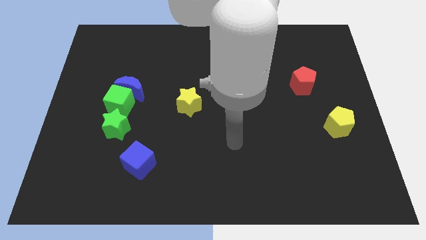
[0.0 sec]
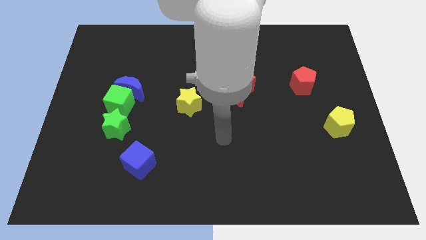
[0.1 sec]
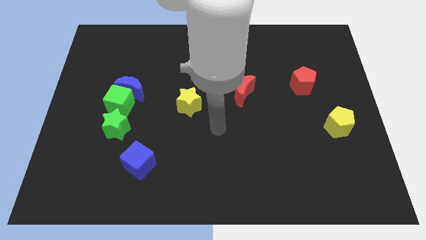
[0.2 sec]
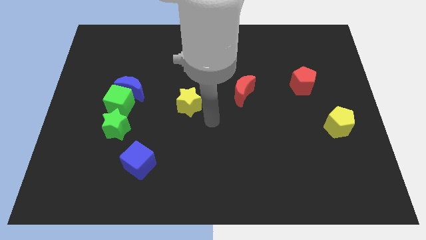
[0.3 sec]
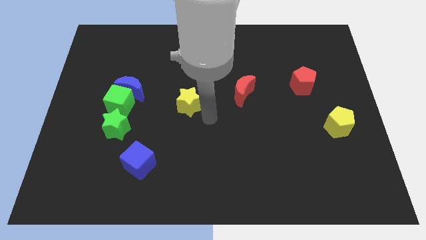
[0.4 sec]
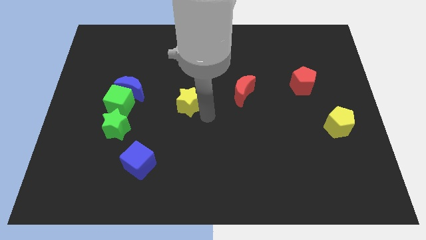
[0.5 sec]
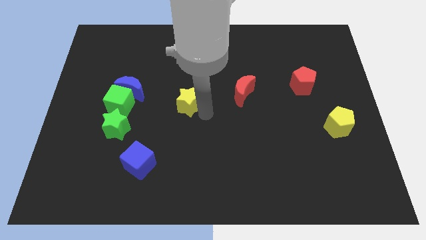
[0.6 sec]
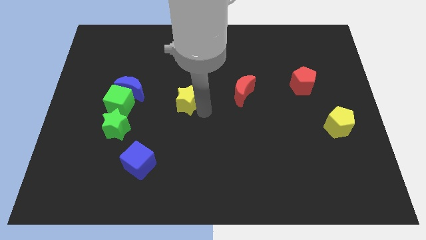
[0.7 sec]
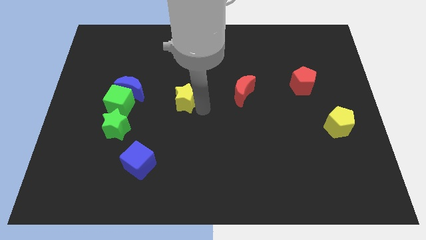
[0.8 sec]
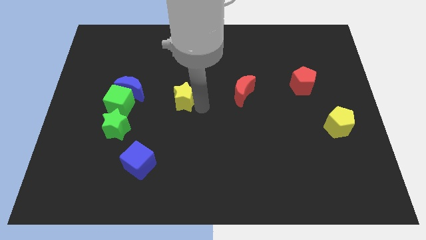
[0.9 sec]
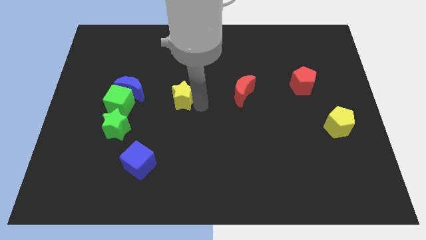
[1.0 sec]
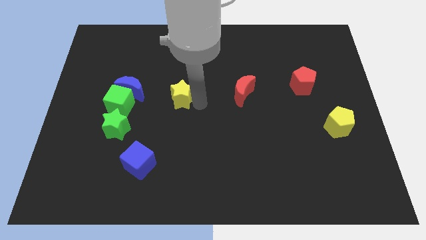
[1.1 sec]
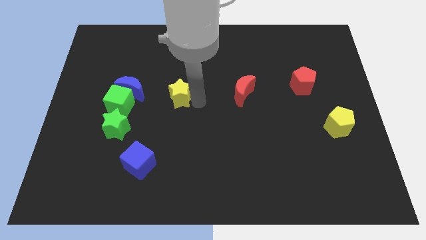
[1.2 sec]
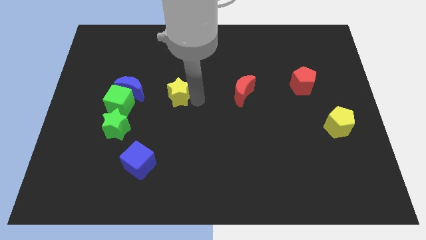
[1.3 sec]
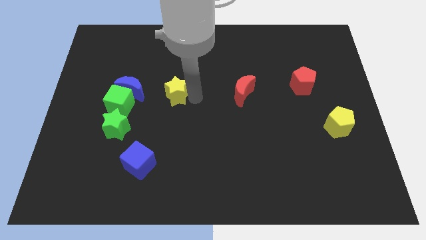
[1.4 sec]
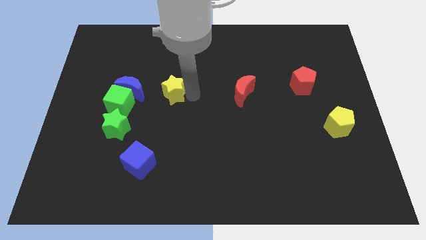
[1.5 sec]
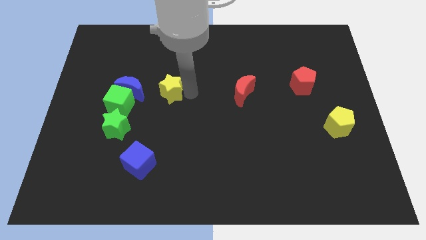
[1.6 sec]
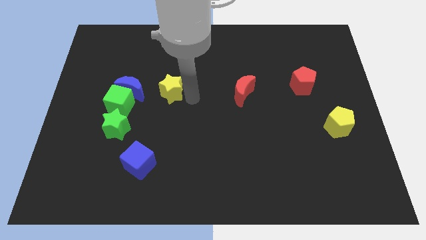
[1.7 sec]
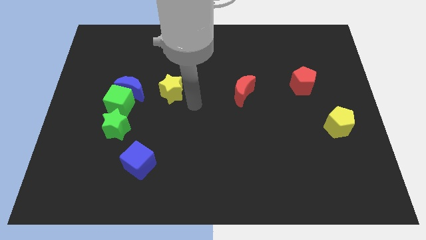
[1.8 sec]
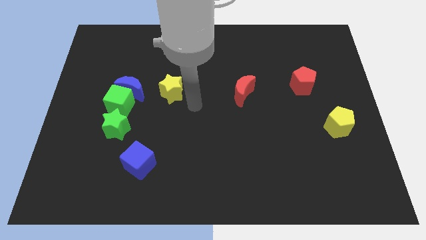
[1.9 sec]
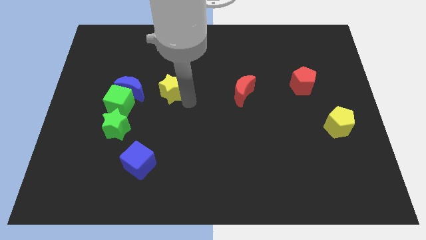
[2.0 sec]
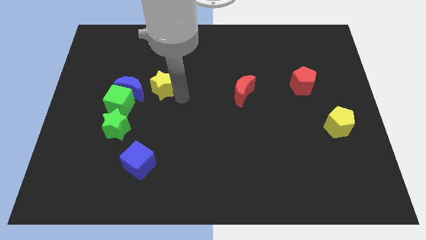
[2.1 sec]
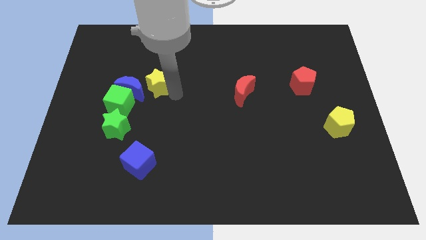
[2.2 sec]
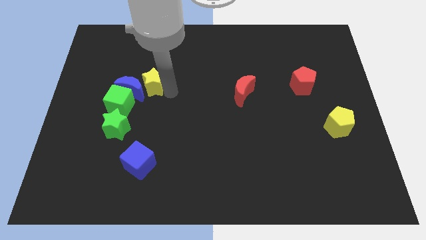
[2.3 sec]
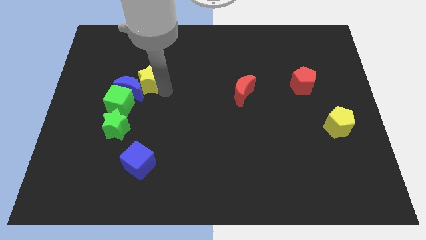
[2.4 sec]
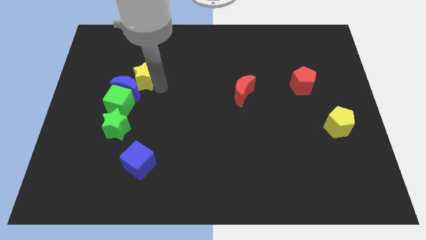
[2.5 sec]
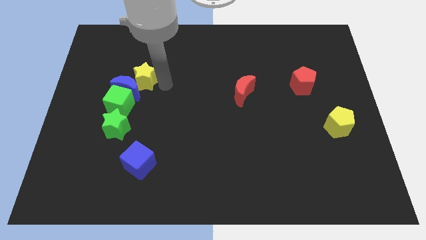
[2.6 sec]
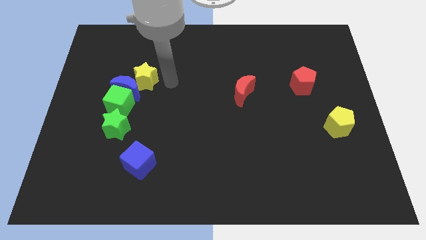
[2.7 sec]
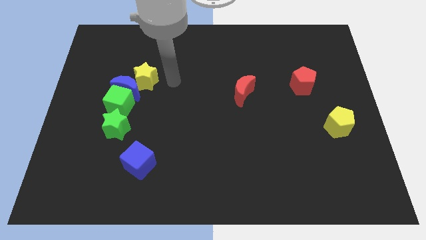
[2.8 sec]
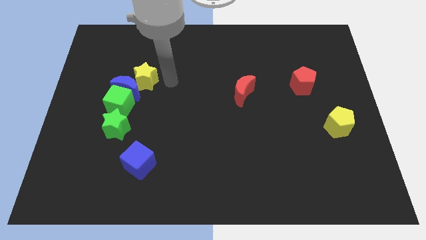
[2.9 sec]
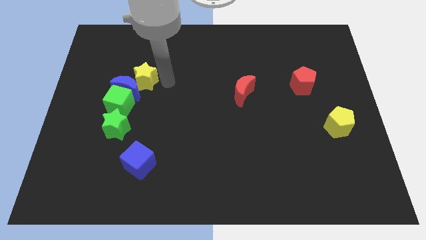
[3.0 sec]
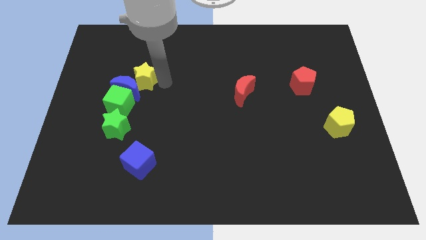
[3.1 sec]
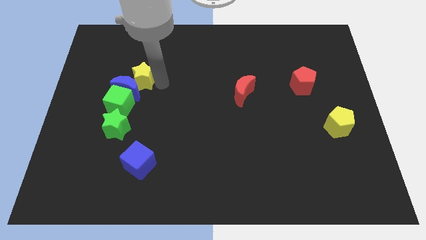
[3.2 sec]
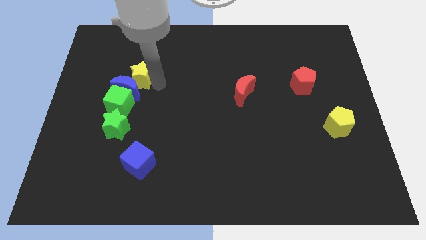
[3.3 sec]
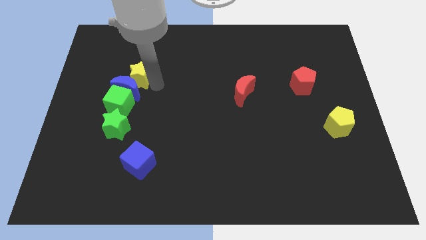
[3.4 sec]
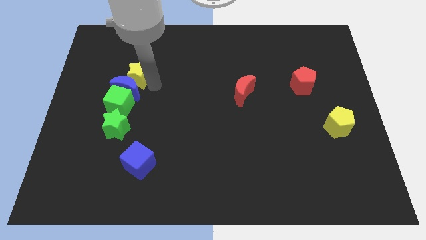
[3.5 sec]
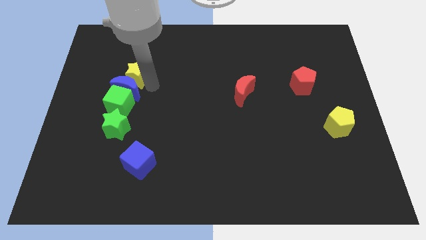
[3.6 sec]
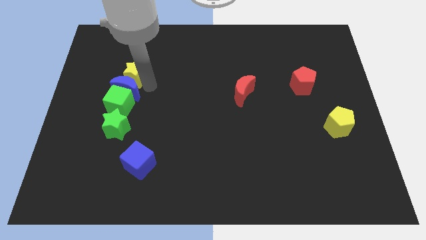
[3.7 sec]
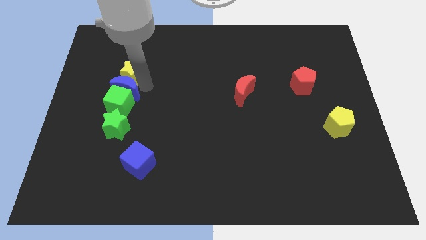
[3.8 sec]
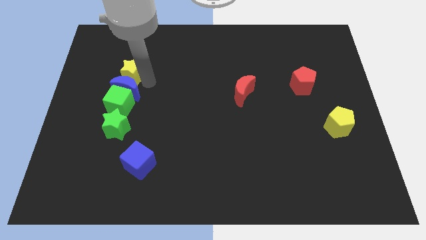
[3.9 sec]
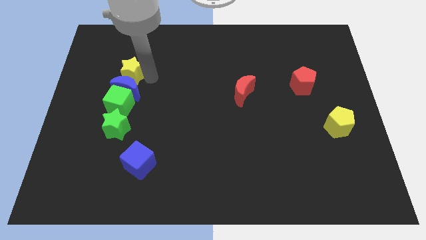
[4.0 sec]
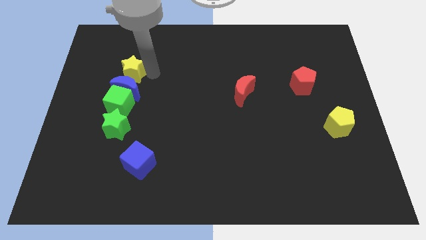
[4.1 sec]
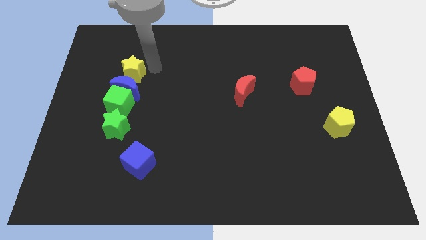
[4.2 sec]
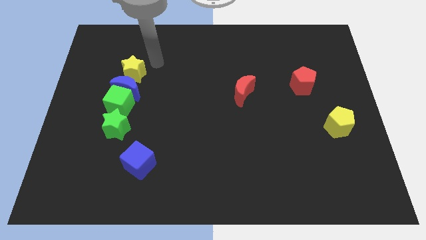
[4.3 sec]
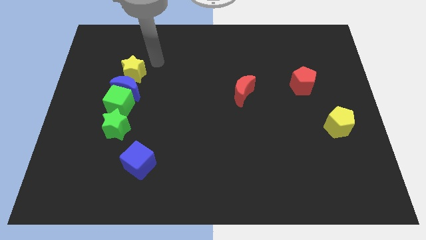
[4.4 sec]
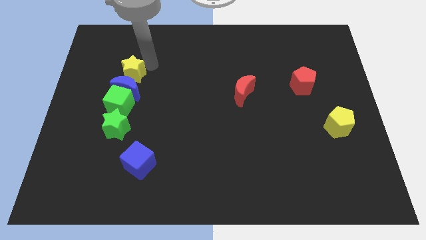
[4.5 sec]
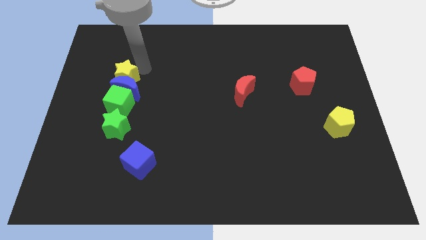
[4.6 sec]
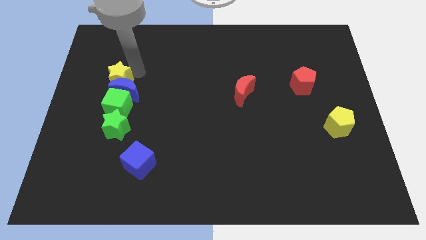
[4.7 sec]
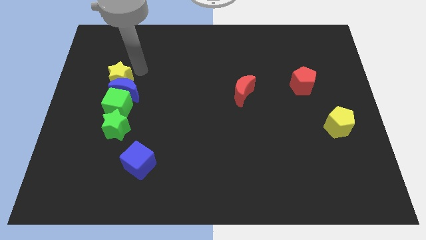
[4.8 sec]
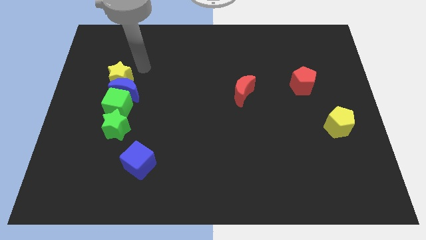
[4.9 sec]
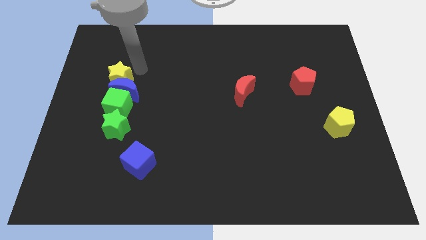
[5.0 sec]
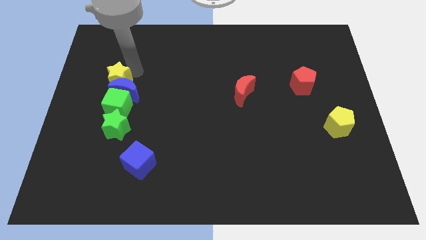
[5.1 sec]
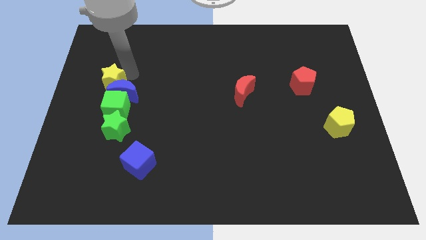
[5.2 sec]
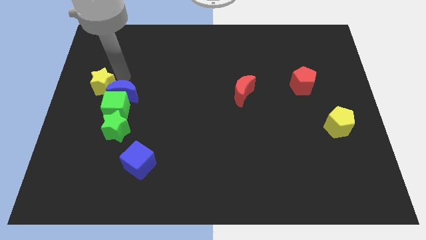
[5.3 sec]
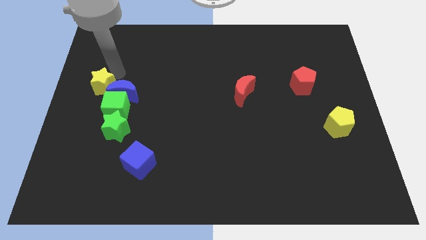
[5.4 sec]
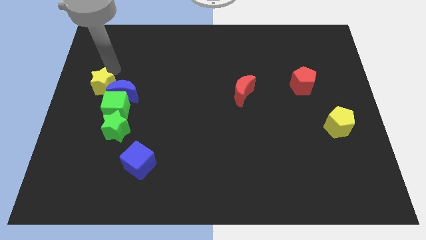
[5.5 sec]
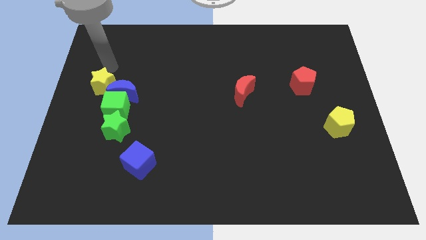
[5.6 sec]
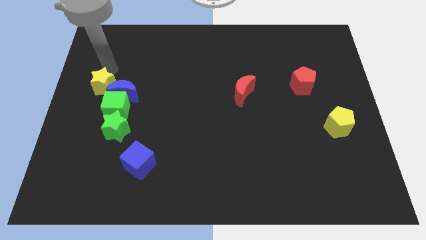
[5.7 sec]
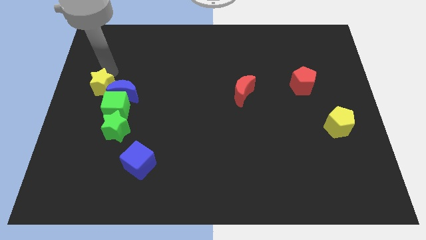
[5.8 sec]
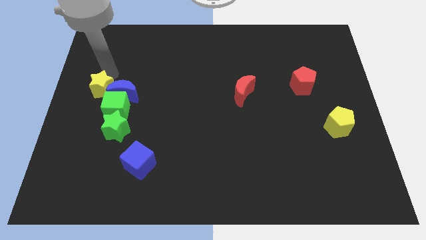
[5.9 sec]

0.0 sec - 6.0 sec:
slide the yellow star to the bottom left side of the blue moon

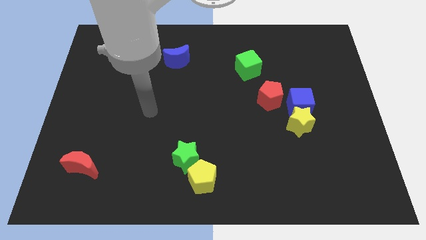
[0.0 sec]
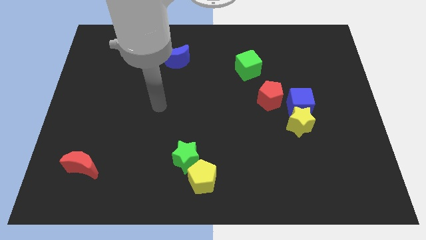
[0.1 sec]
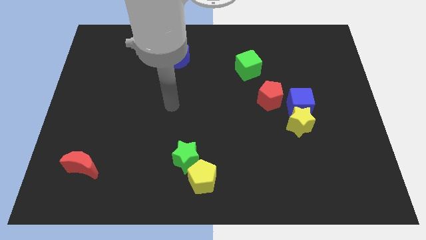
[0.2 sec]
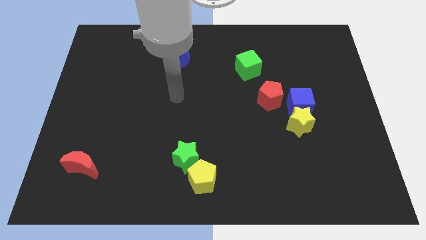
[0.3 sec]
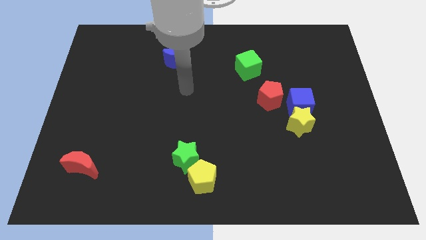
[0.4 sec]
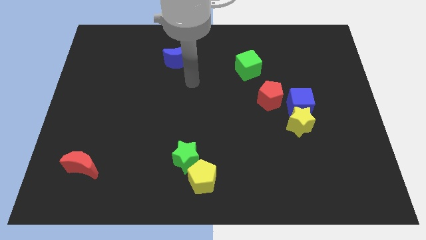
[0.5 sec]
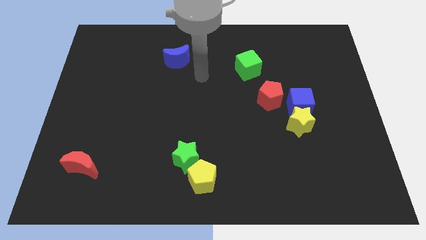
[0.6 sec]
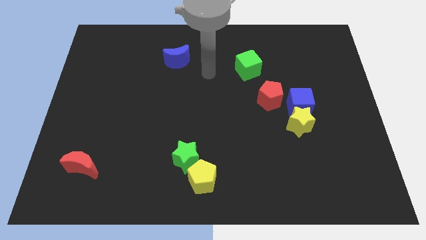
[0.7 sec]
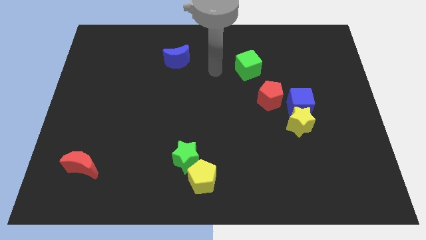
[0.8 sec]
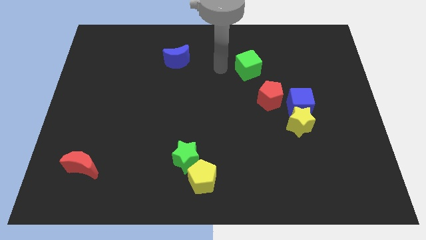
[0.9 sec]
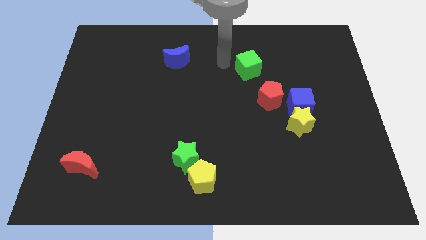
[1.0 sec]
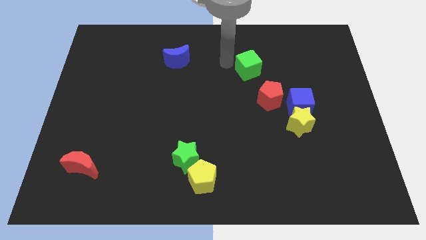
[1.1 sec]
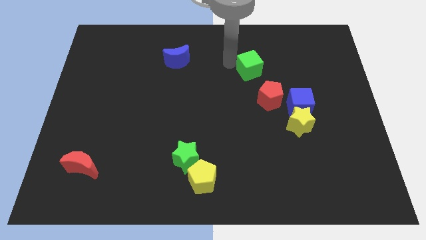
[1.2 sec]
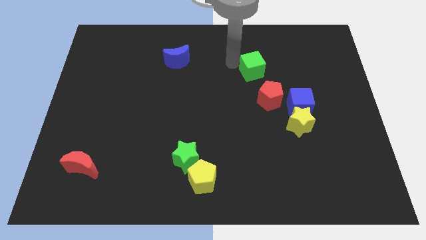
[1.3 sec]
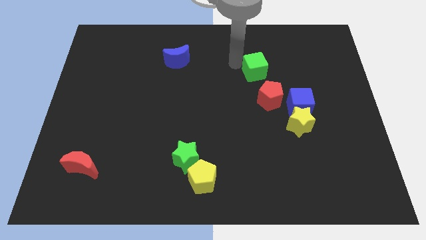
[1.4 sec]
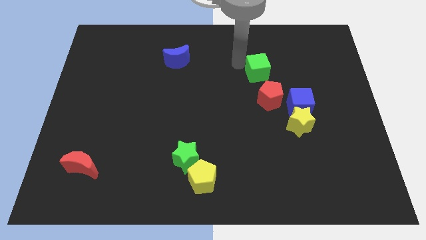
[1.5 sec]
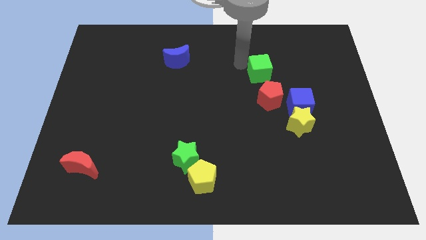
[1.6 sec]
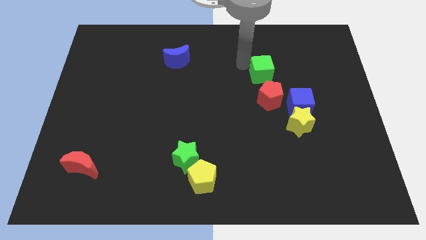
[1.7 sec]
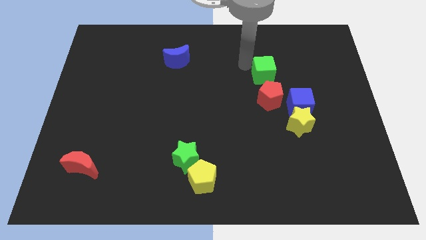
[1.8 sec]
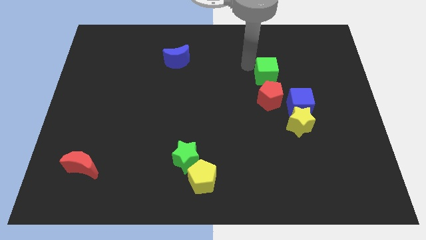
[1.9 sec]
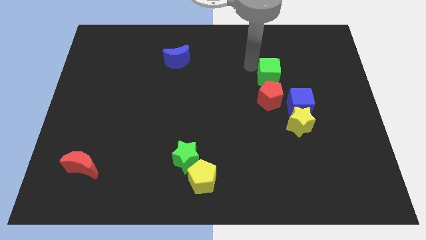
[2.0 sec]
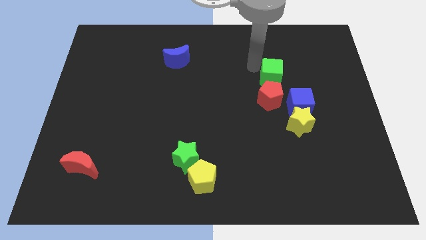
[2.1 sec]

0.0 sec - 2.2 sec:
move the green cube to the top right side of the red pentagon
